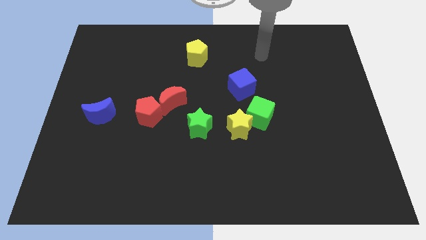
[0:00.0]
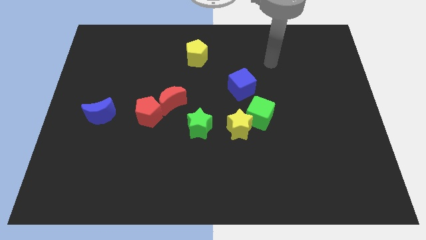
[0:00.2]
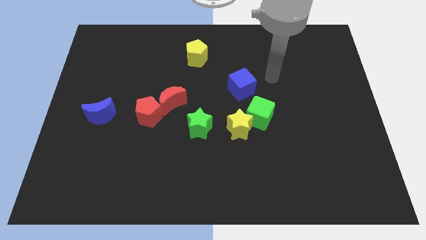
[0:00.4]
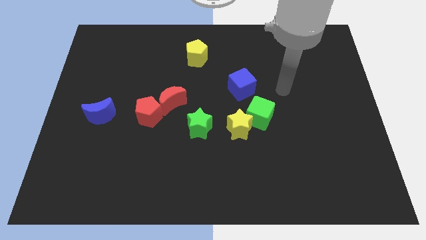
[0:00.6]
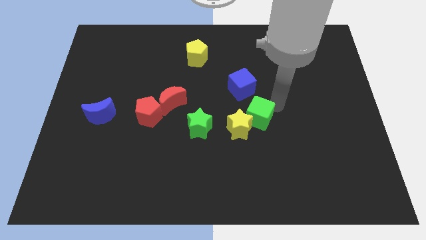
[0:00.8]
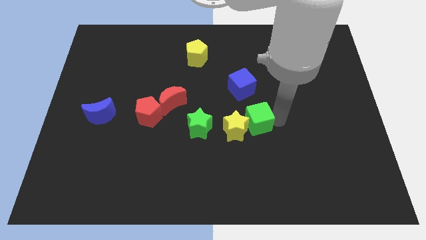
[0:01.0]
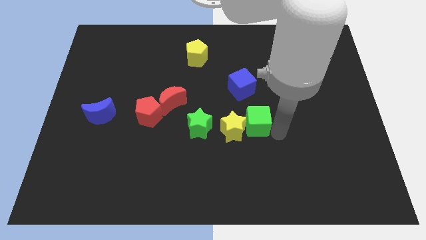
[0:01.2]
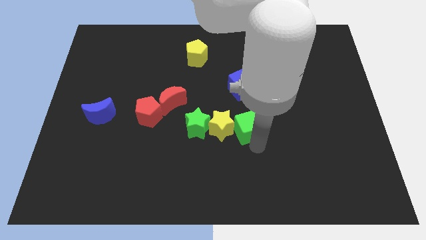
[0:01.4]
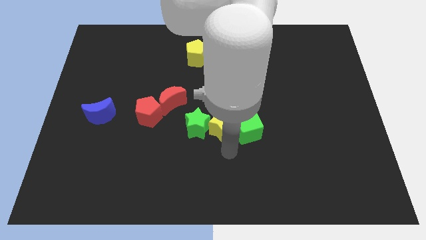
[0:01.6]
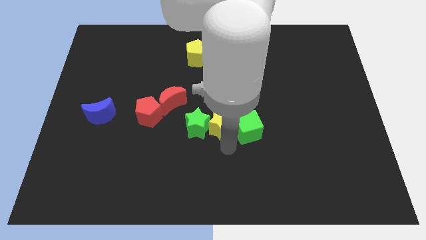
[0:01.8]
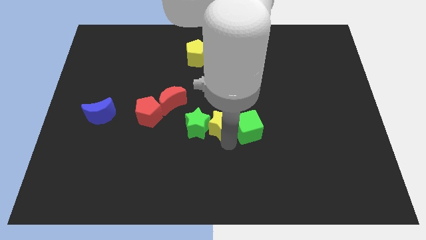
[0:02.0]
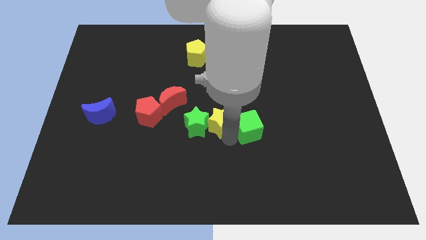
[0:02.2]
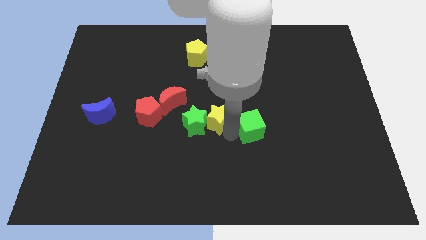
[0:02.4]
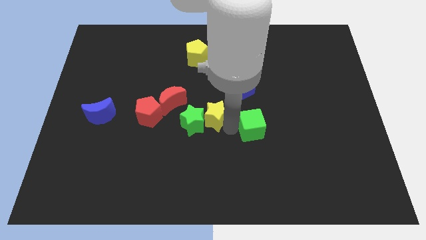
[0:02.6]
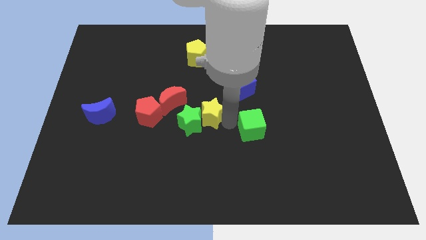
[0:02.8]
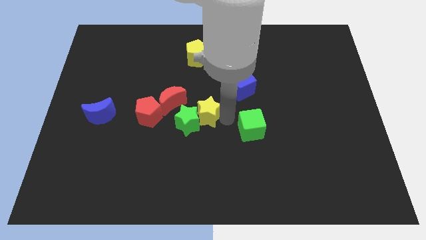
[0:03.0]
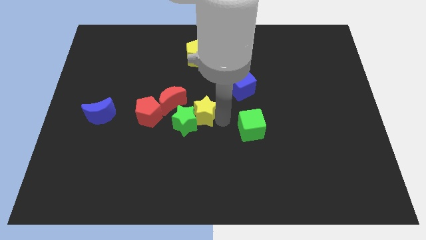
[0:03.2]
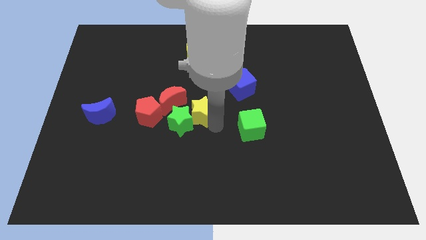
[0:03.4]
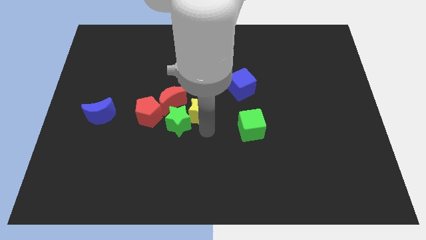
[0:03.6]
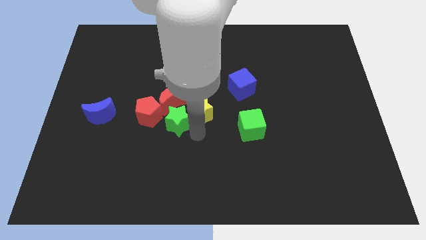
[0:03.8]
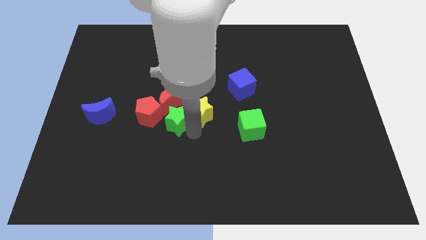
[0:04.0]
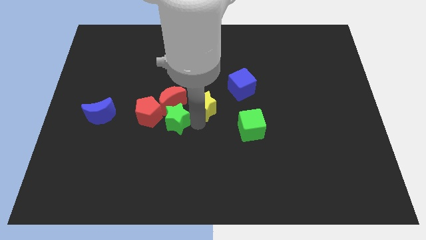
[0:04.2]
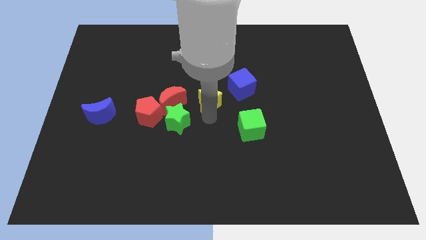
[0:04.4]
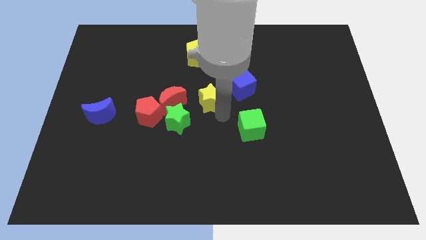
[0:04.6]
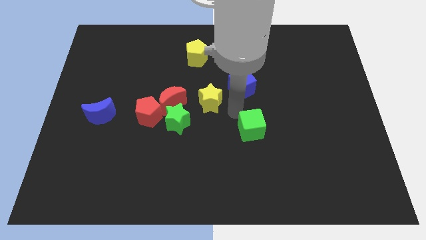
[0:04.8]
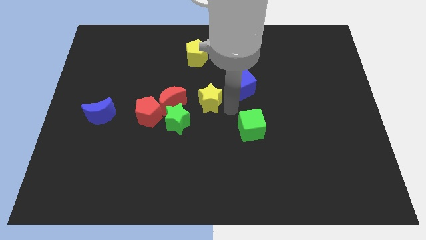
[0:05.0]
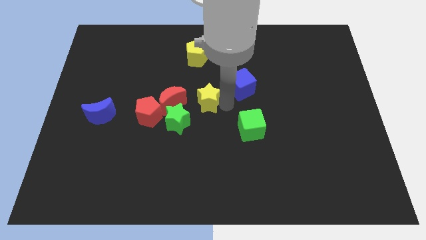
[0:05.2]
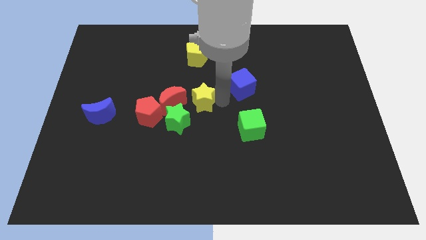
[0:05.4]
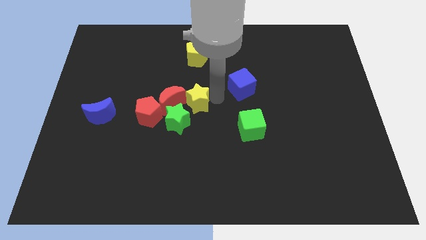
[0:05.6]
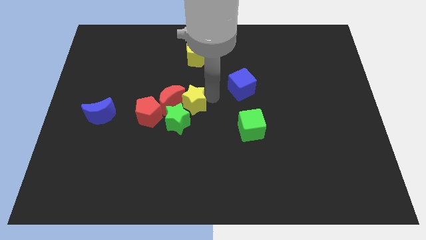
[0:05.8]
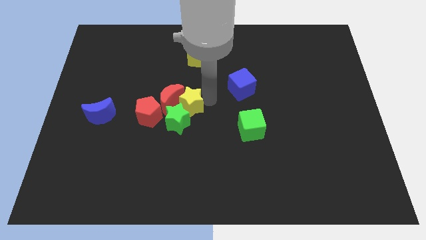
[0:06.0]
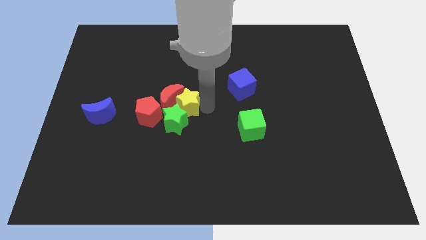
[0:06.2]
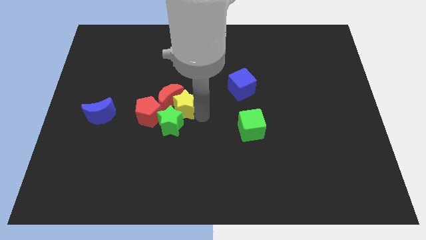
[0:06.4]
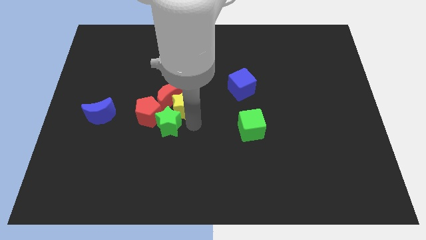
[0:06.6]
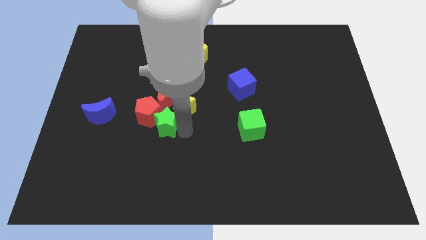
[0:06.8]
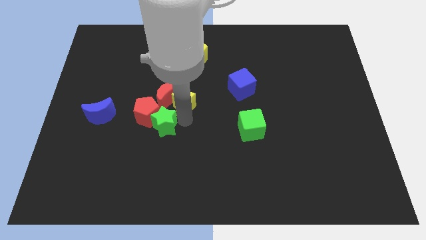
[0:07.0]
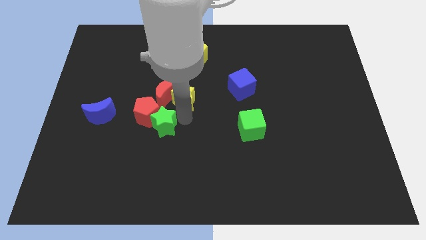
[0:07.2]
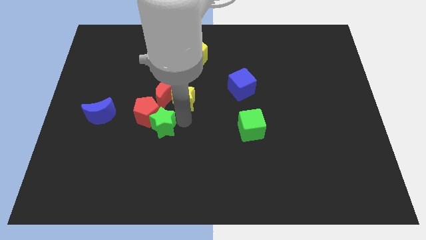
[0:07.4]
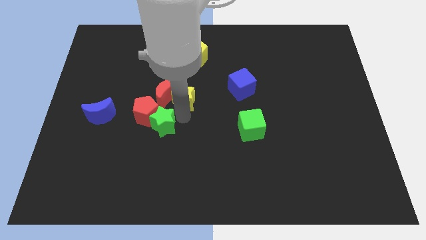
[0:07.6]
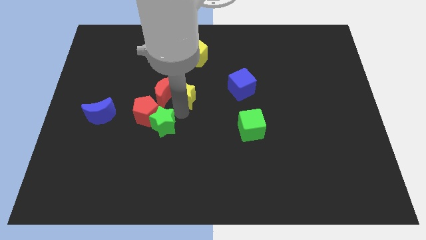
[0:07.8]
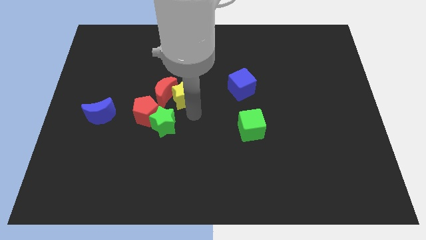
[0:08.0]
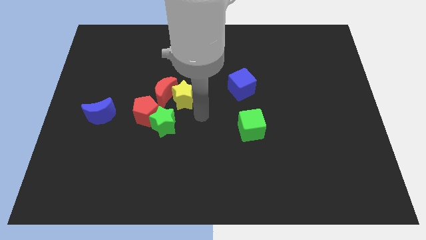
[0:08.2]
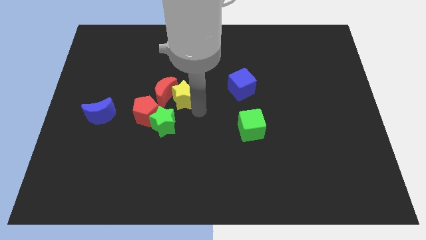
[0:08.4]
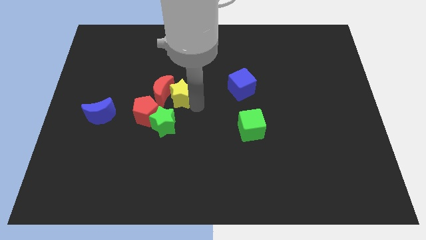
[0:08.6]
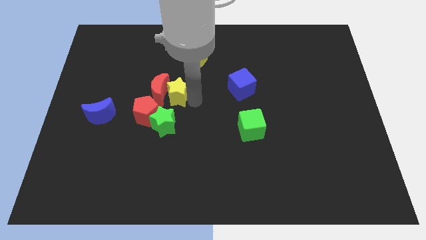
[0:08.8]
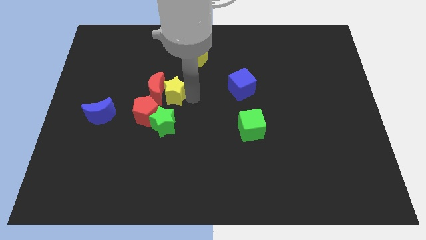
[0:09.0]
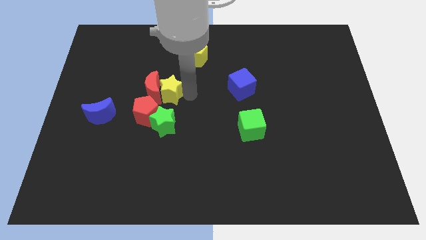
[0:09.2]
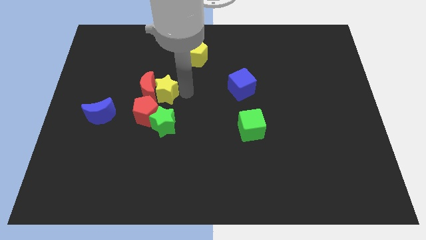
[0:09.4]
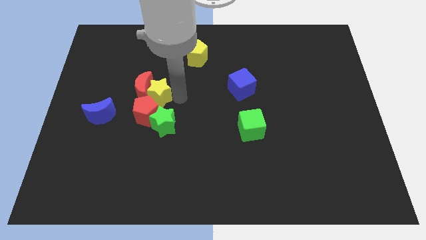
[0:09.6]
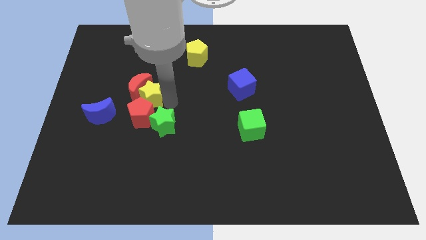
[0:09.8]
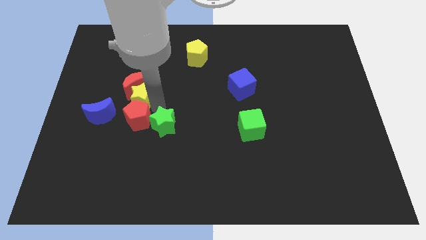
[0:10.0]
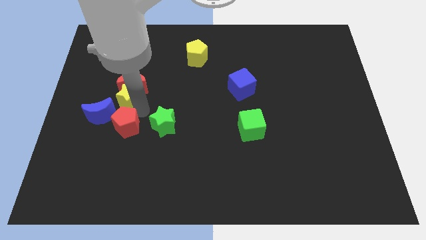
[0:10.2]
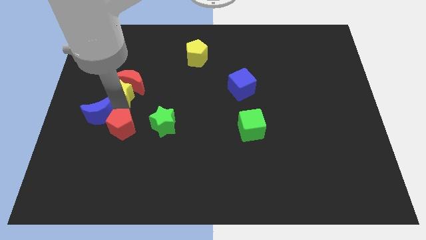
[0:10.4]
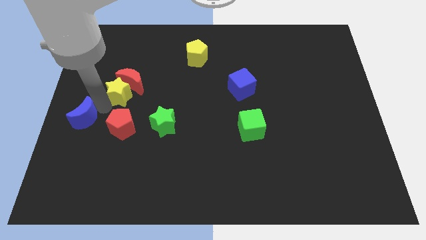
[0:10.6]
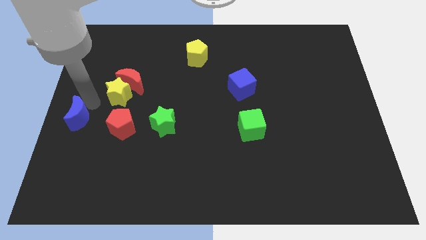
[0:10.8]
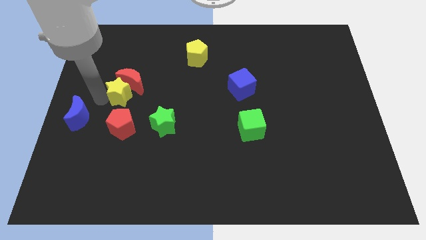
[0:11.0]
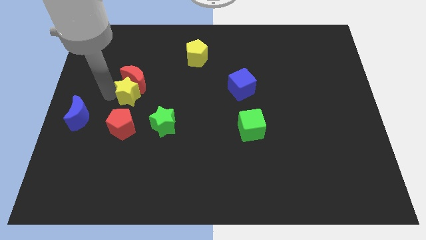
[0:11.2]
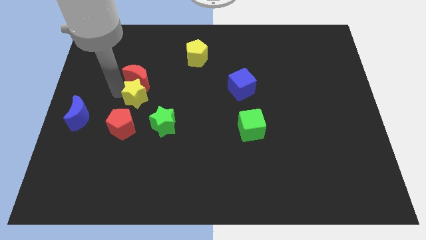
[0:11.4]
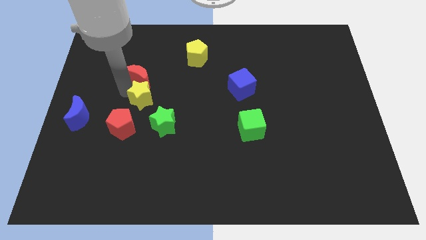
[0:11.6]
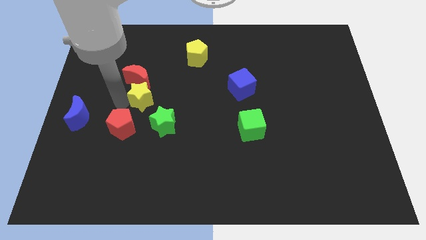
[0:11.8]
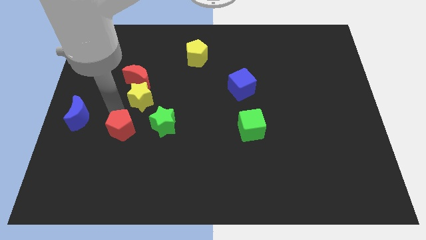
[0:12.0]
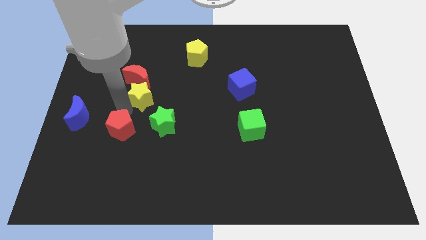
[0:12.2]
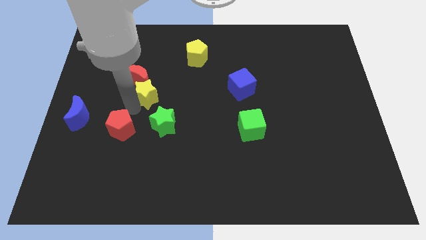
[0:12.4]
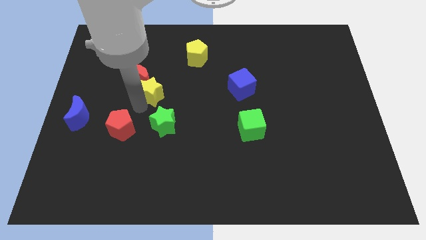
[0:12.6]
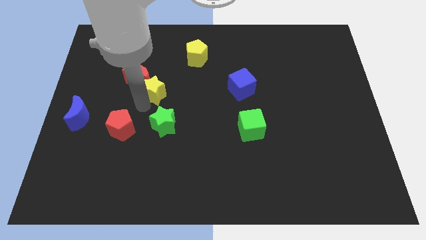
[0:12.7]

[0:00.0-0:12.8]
slide the yellow star diagonally up and to the left

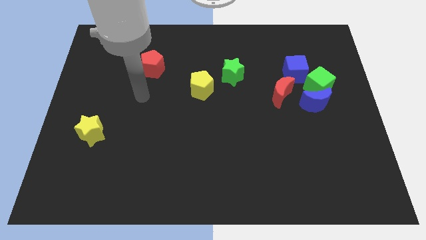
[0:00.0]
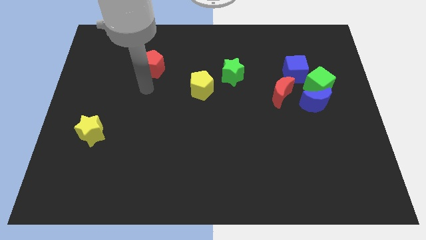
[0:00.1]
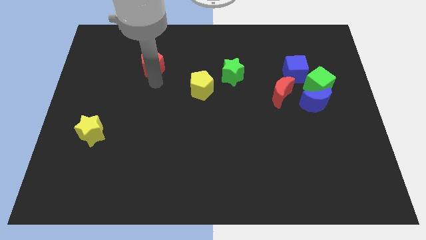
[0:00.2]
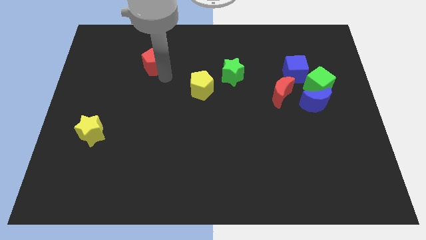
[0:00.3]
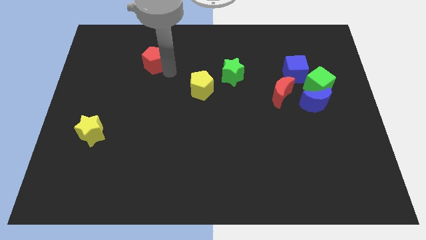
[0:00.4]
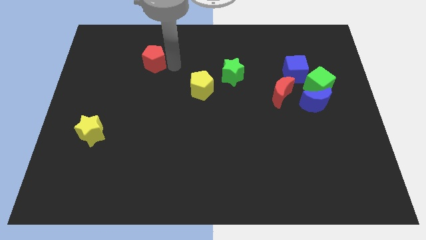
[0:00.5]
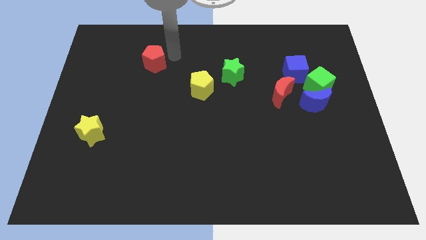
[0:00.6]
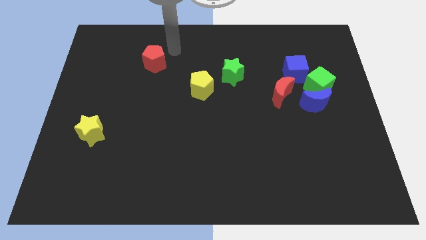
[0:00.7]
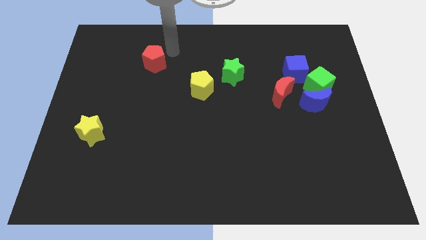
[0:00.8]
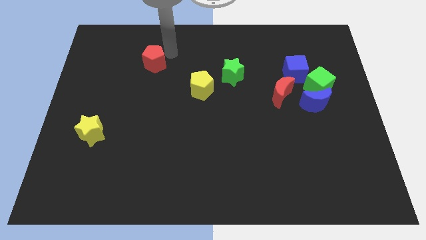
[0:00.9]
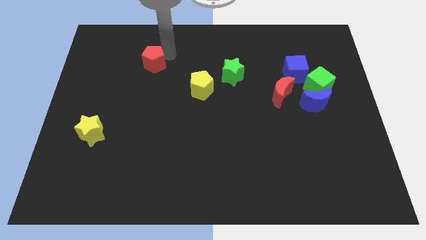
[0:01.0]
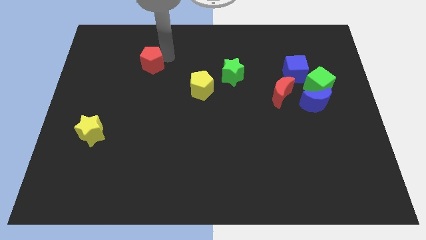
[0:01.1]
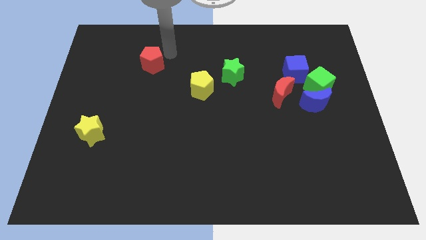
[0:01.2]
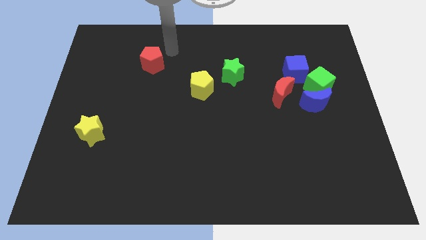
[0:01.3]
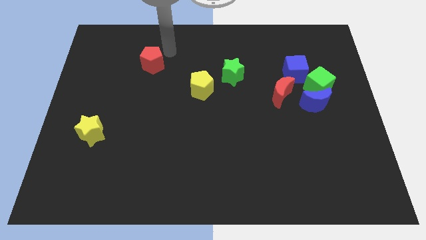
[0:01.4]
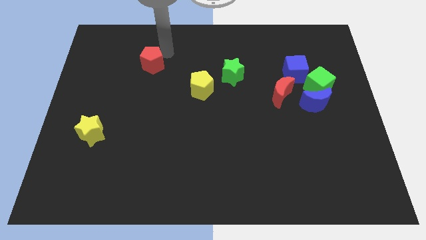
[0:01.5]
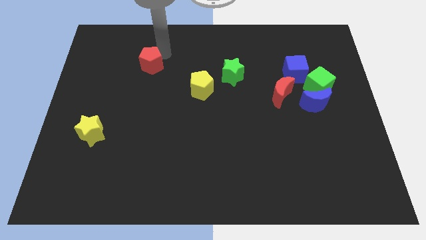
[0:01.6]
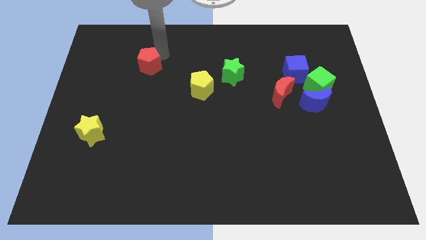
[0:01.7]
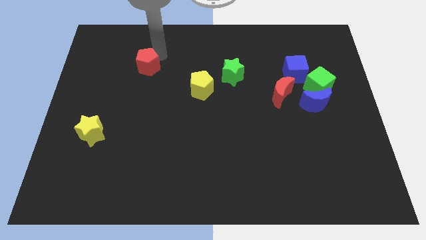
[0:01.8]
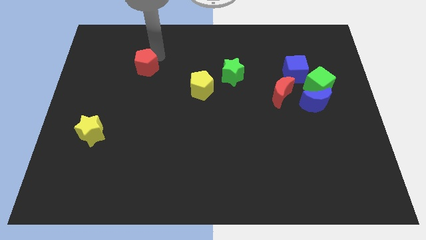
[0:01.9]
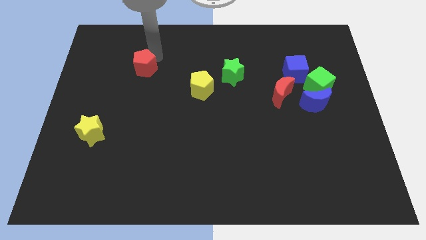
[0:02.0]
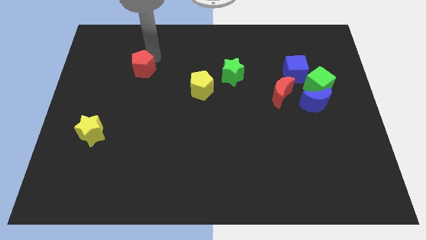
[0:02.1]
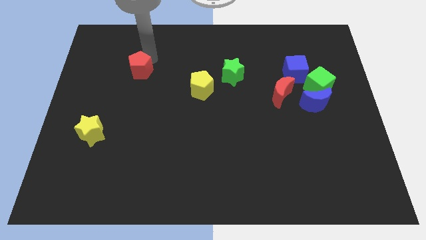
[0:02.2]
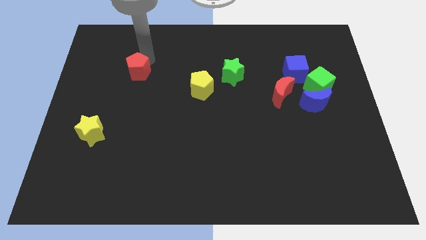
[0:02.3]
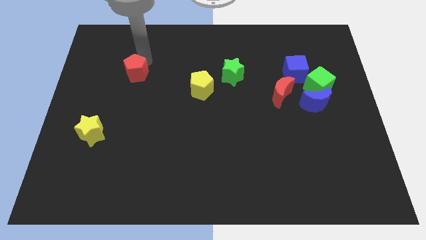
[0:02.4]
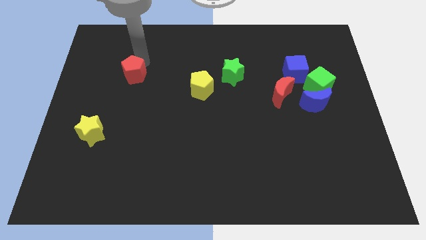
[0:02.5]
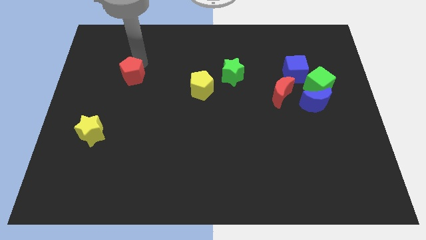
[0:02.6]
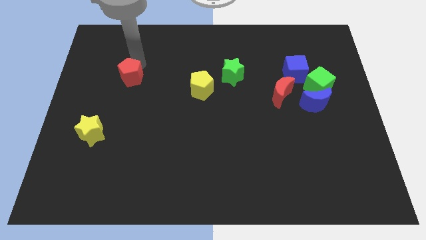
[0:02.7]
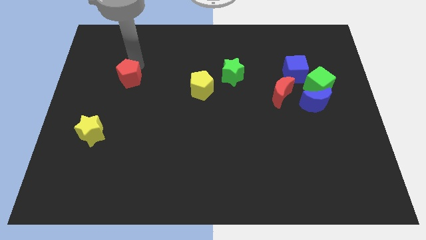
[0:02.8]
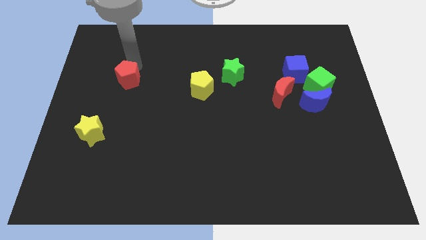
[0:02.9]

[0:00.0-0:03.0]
slightly slide the red pentagon downwards and then to the left
